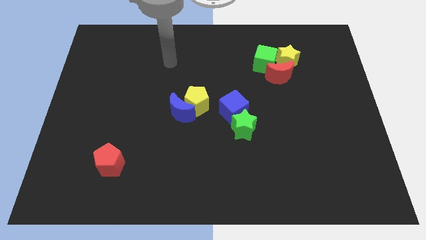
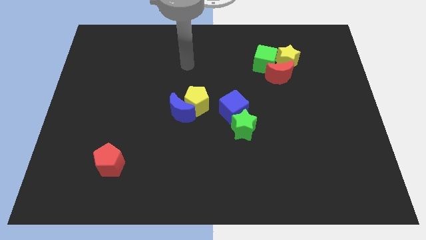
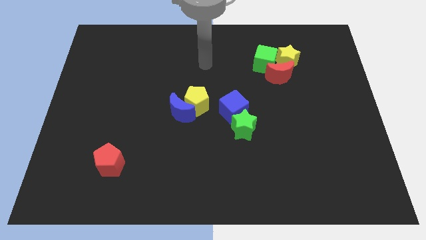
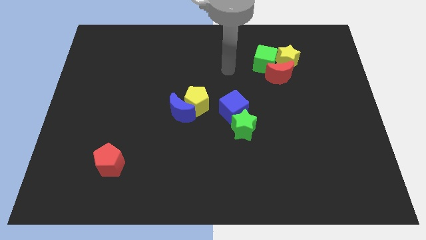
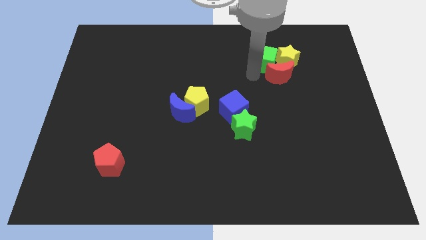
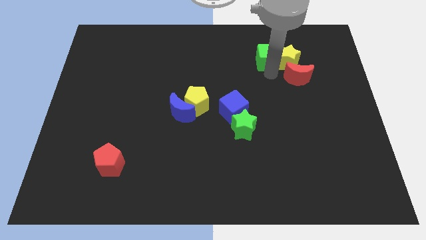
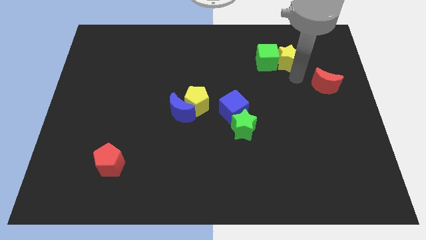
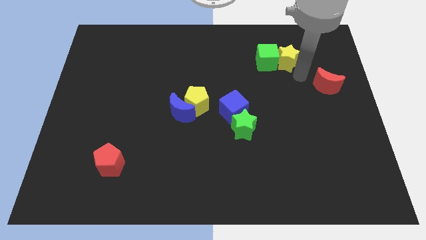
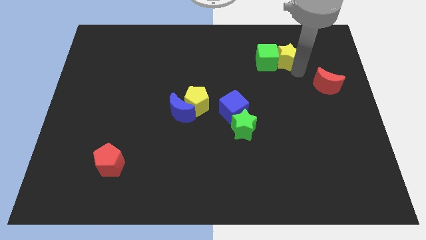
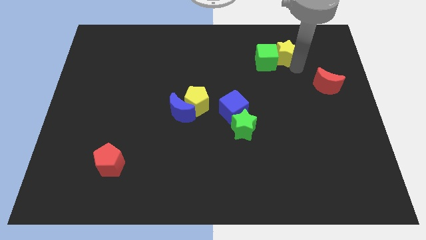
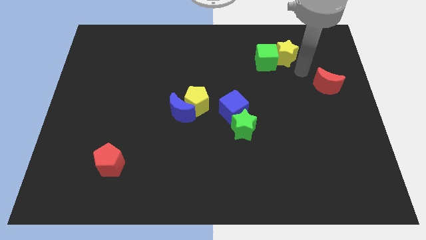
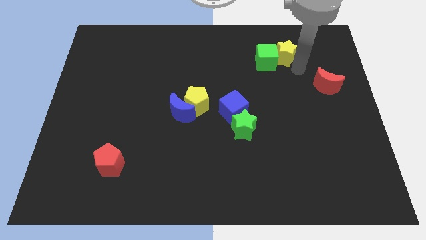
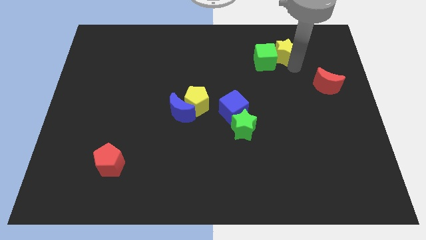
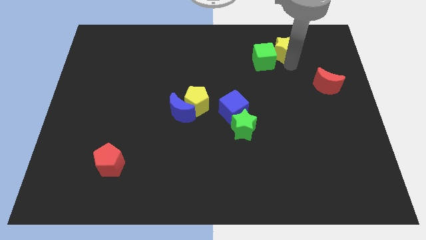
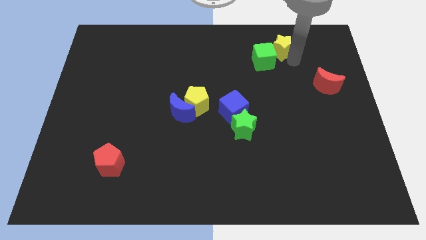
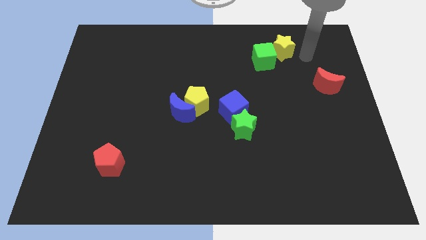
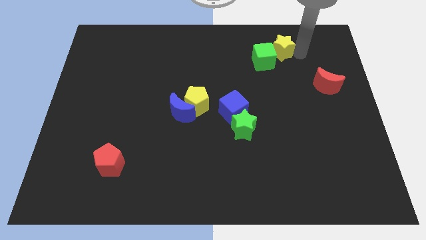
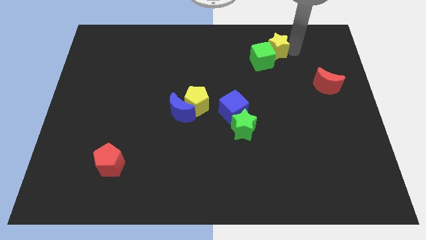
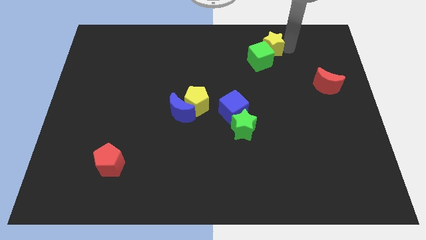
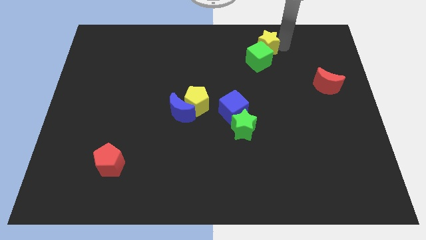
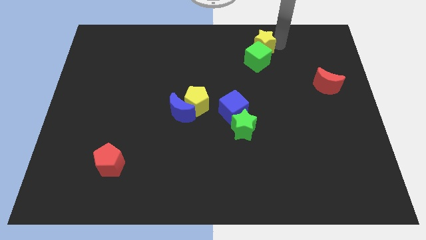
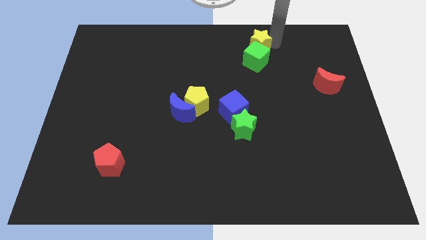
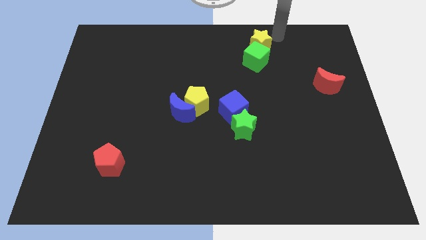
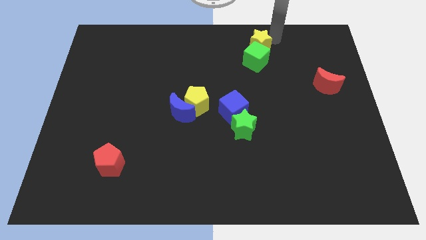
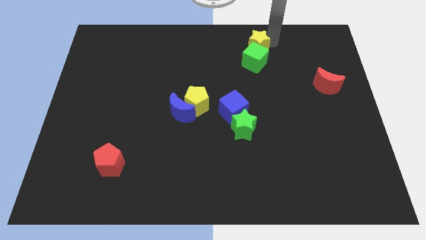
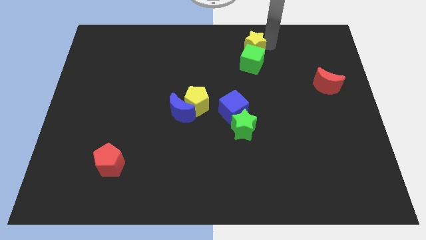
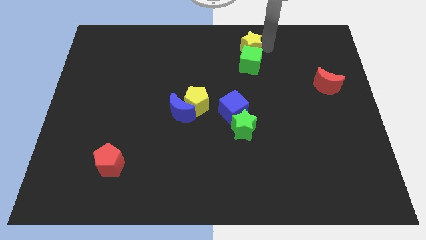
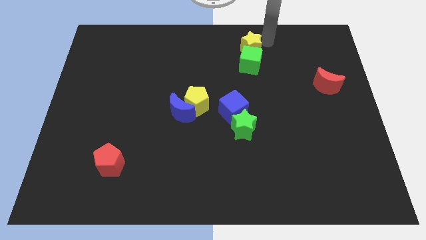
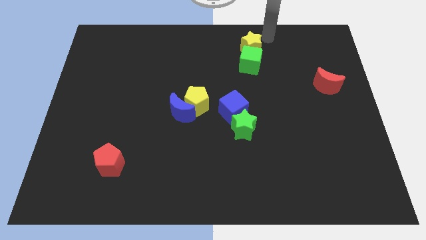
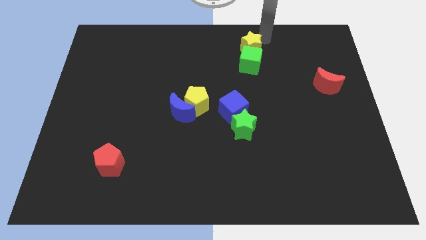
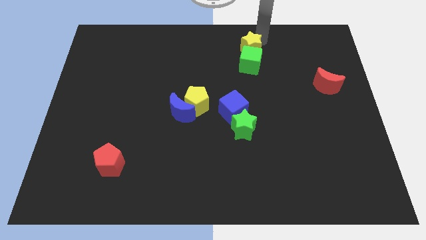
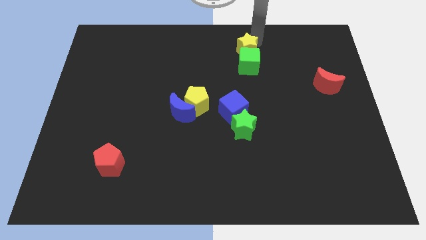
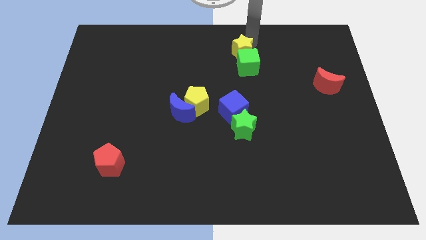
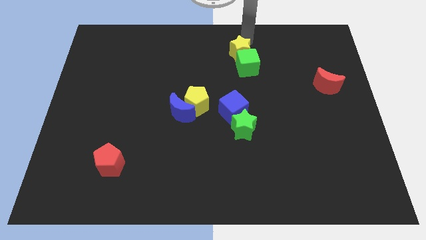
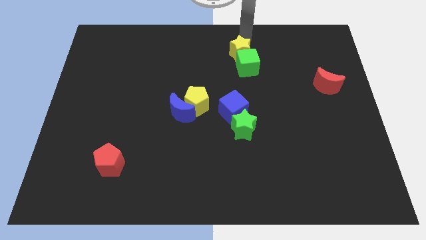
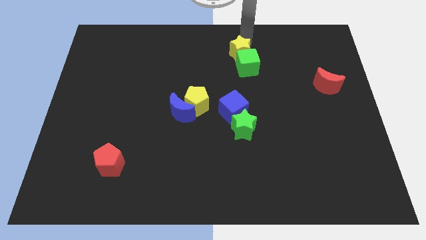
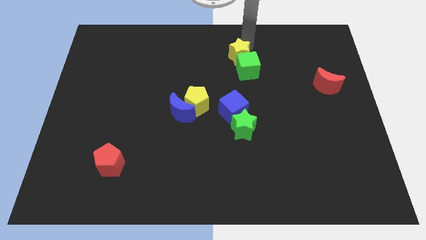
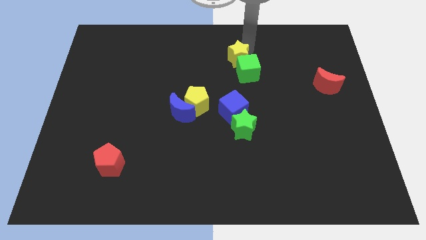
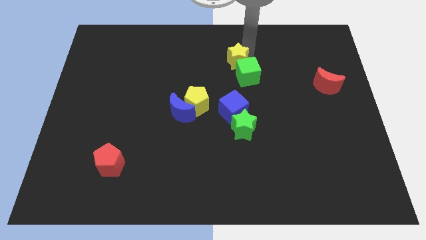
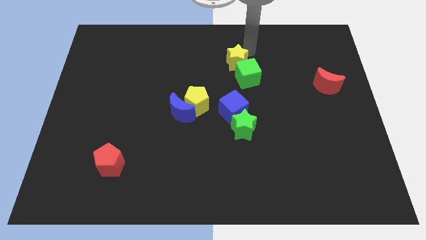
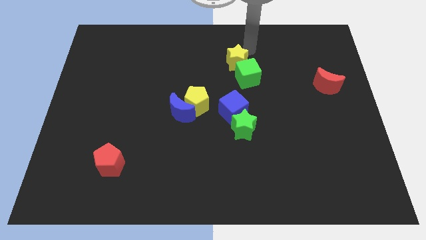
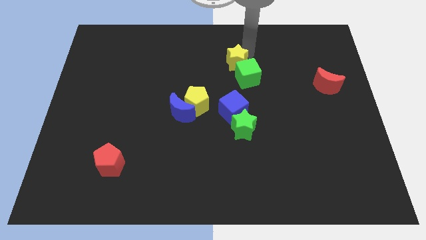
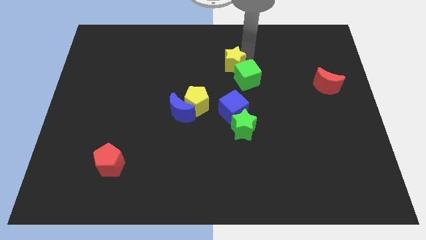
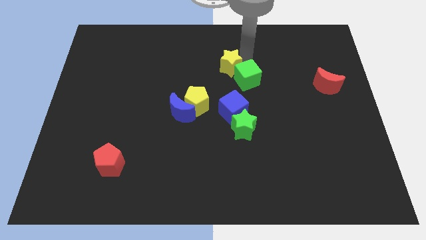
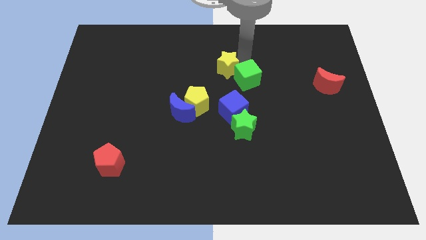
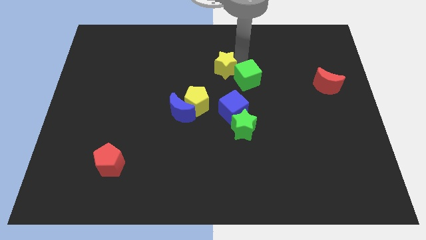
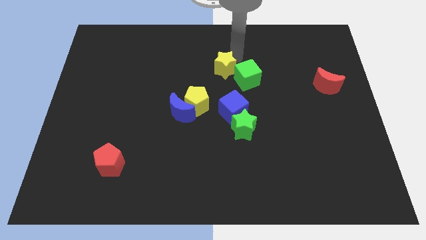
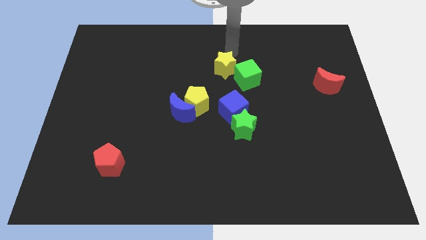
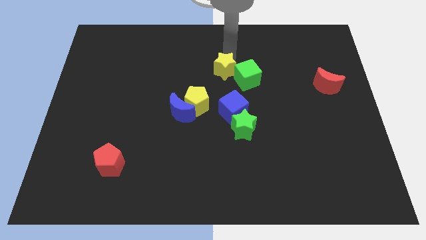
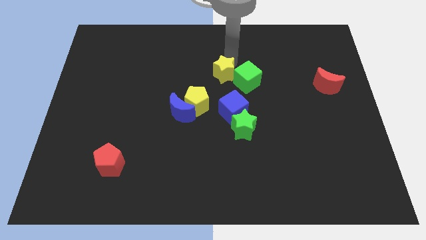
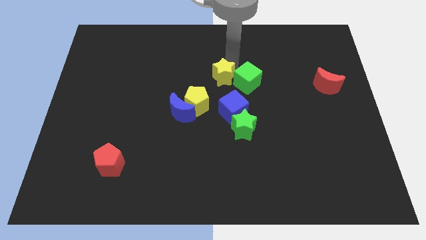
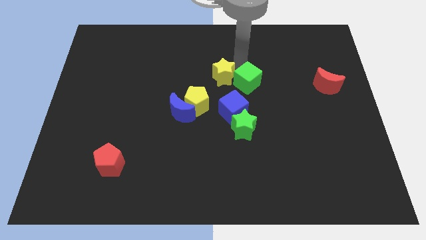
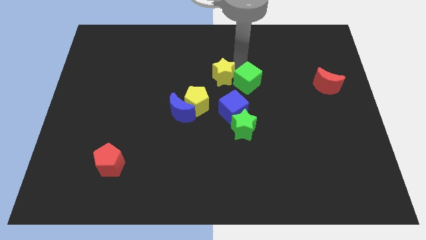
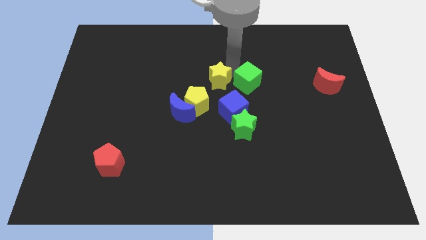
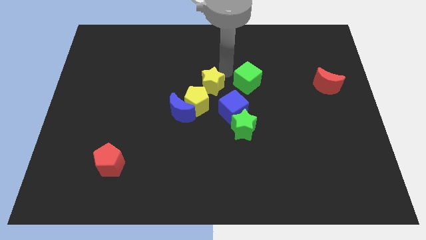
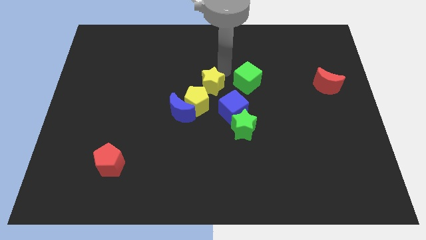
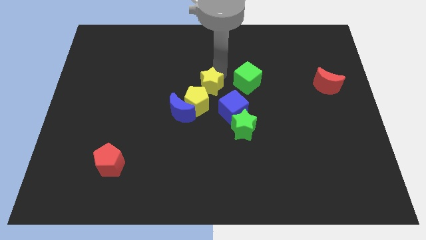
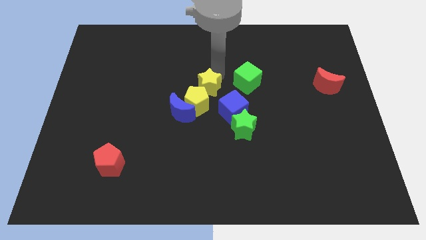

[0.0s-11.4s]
slide the yellow star towards the yellow pentagon

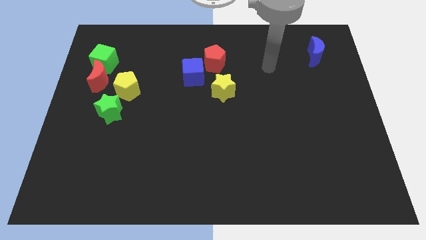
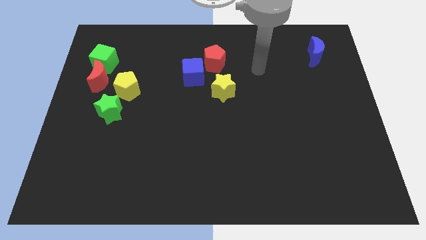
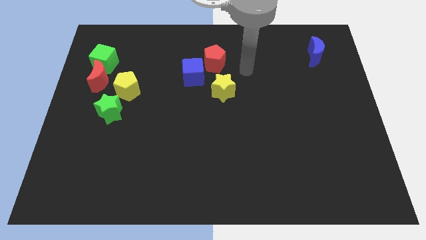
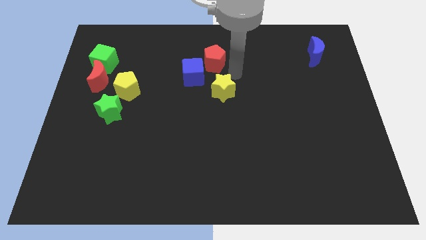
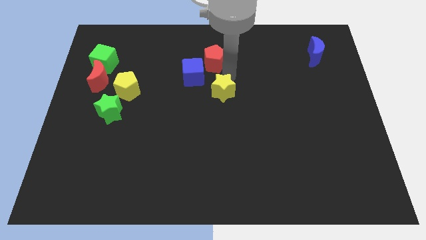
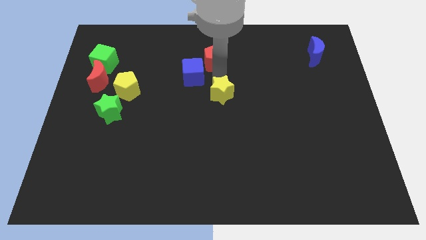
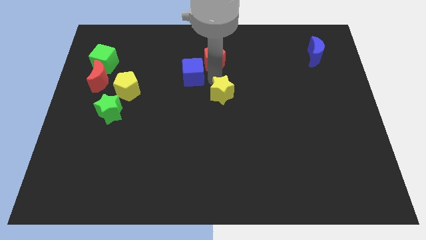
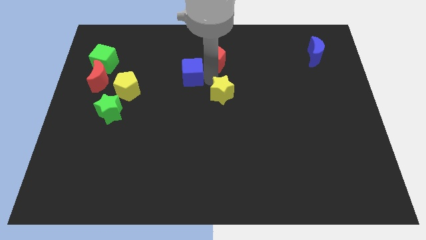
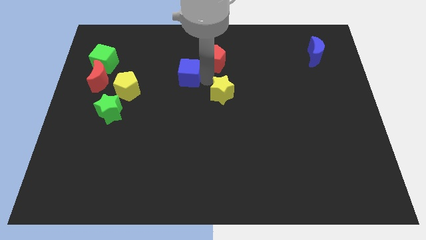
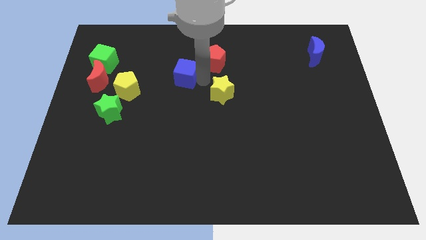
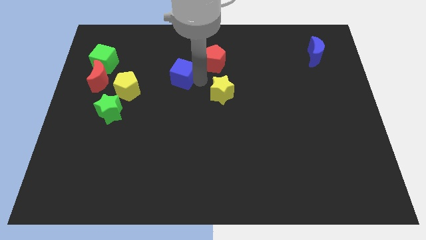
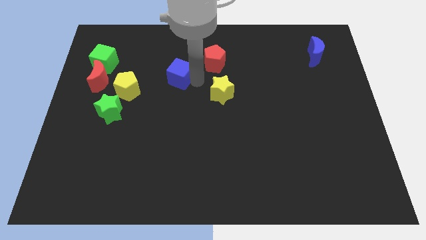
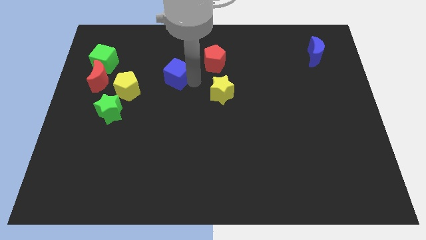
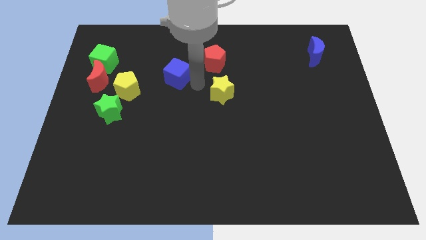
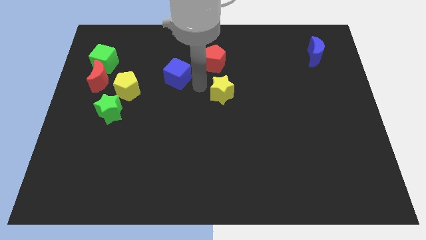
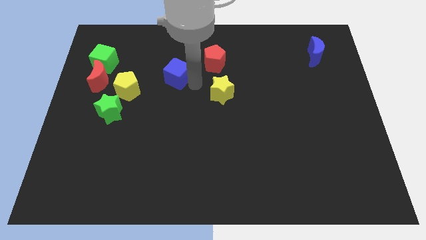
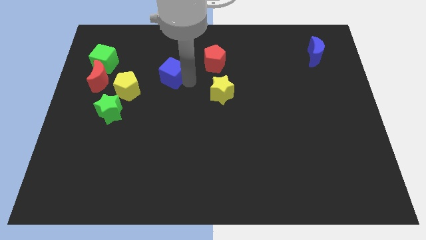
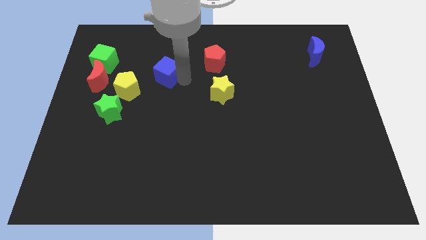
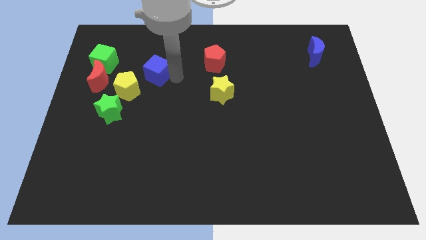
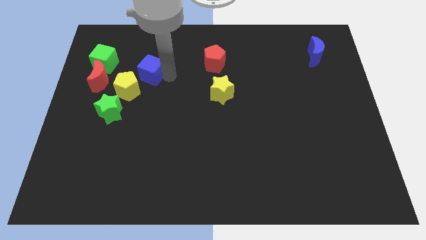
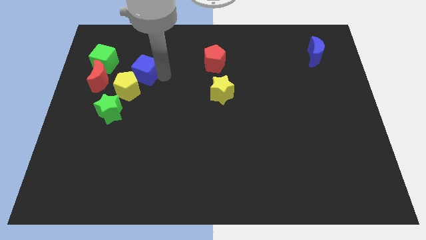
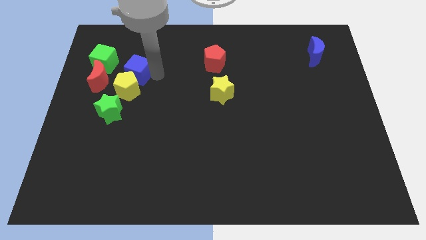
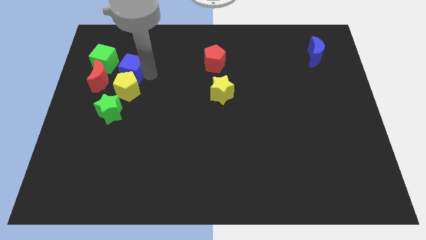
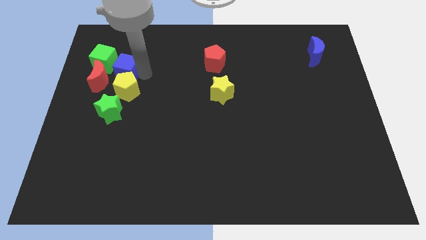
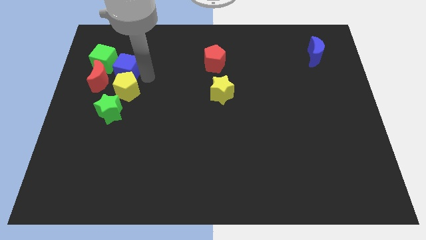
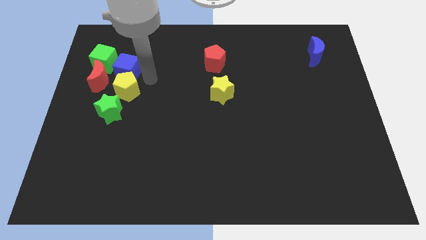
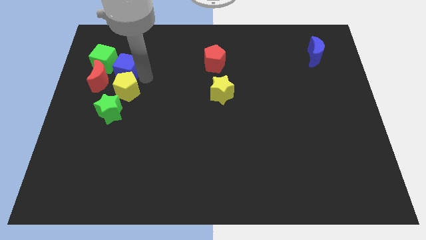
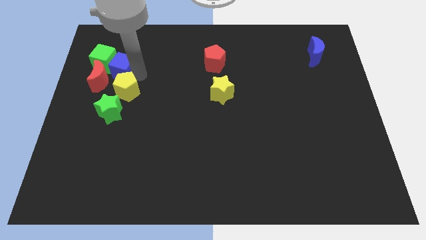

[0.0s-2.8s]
put the blue cube towards the green cube
